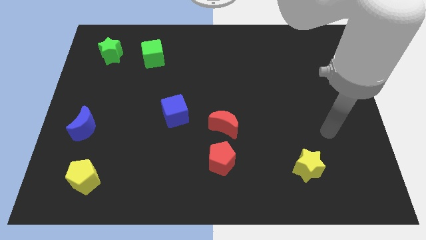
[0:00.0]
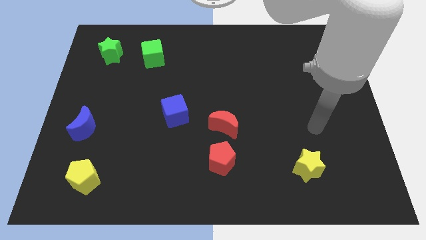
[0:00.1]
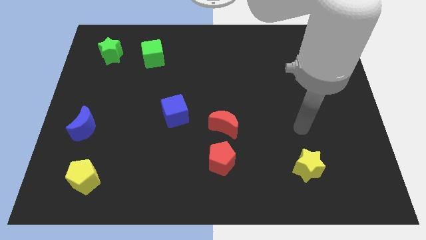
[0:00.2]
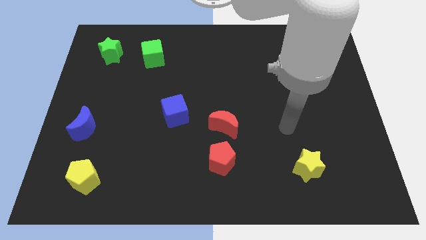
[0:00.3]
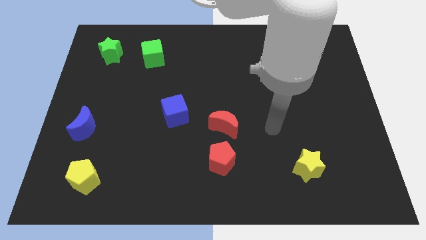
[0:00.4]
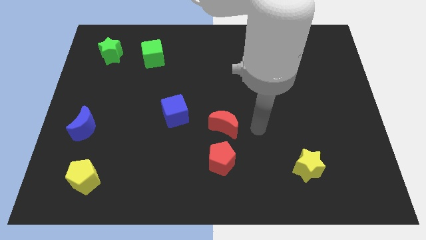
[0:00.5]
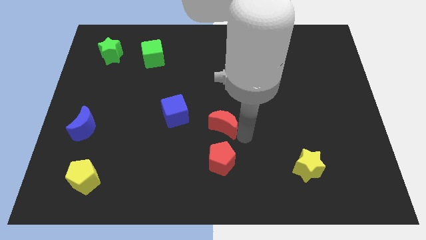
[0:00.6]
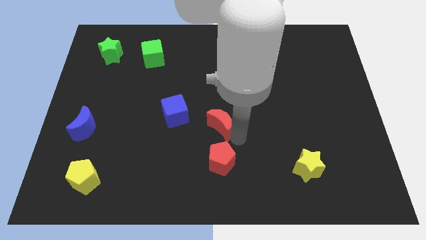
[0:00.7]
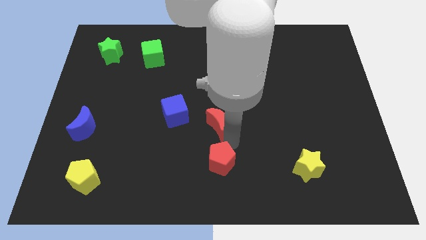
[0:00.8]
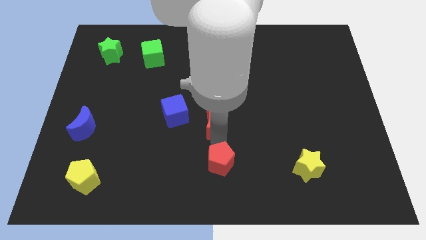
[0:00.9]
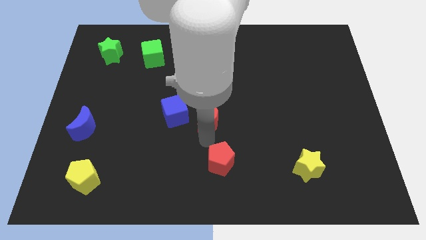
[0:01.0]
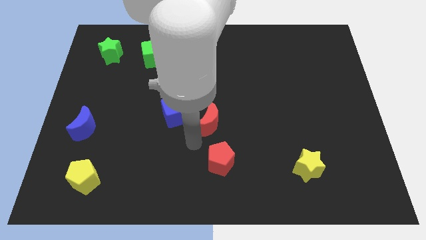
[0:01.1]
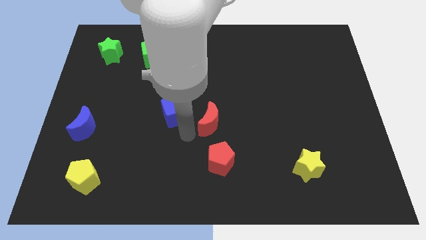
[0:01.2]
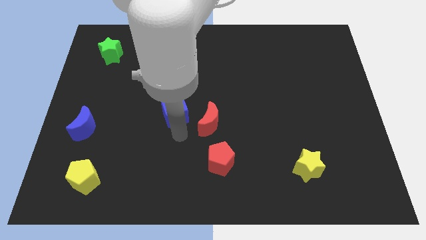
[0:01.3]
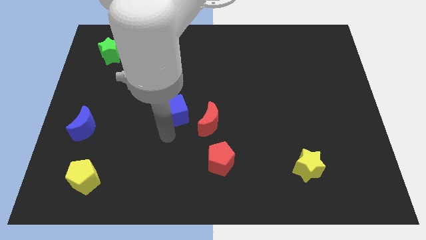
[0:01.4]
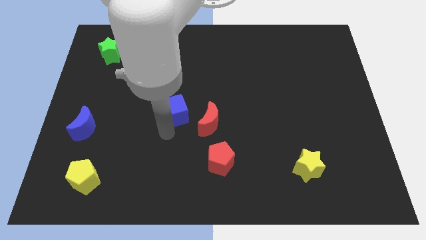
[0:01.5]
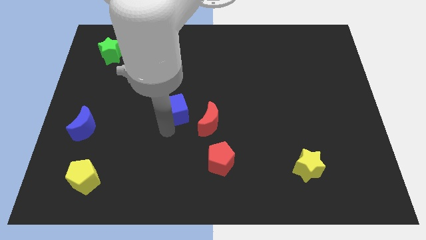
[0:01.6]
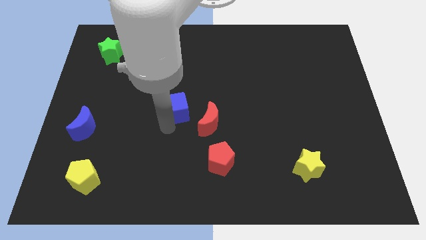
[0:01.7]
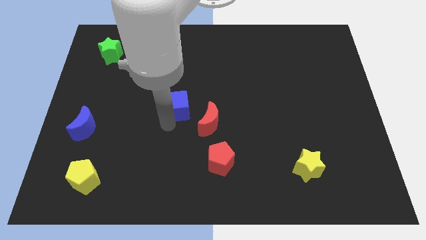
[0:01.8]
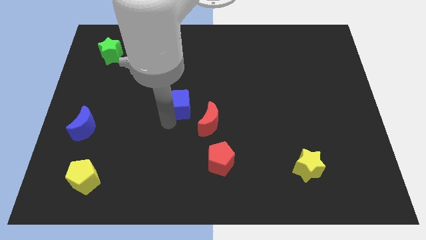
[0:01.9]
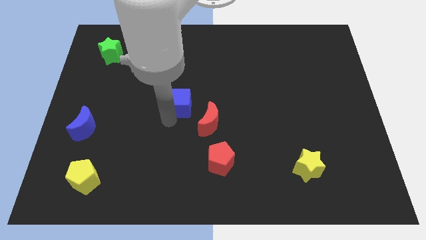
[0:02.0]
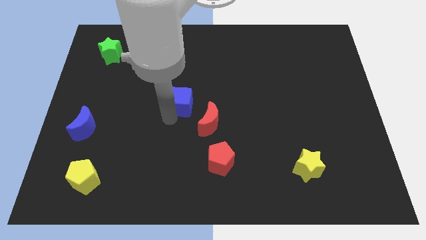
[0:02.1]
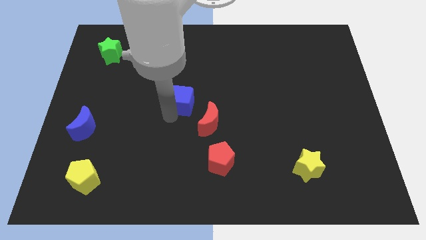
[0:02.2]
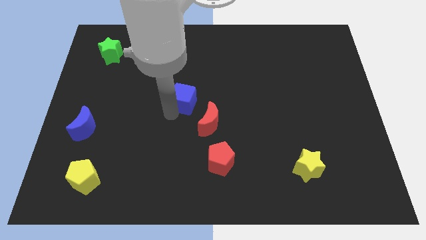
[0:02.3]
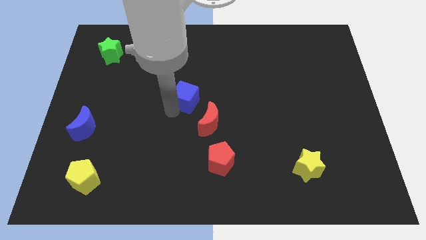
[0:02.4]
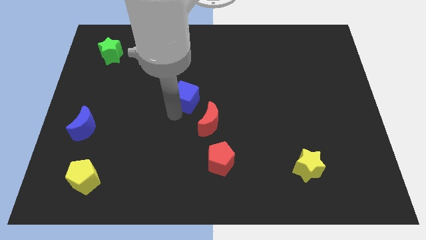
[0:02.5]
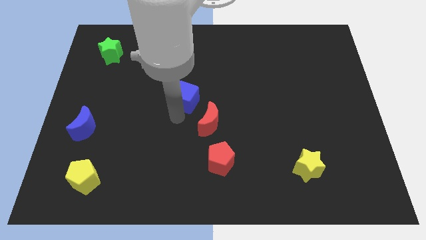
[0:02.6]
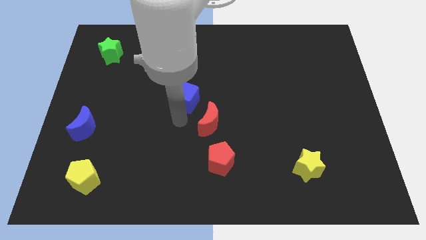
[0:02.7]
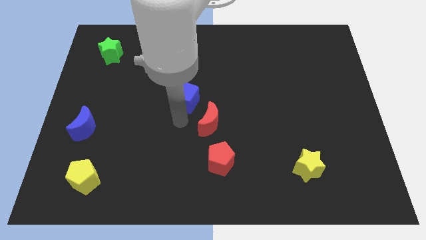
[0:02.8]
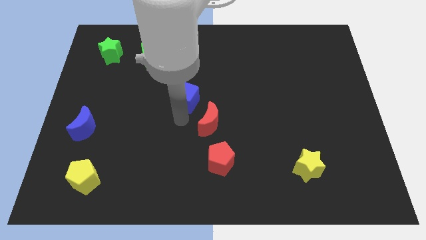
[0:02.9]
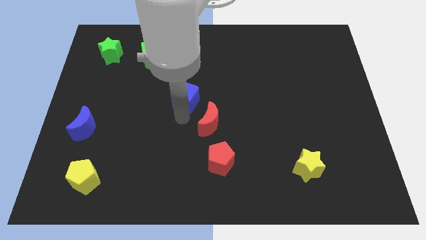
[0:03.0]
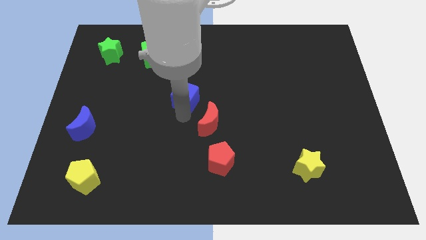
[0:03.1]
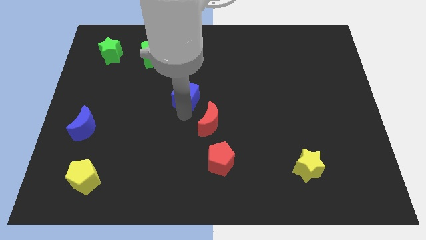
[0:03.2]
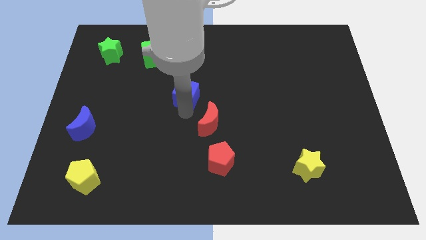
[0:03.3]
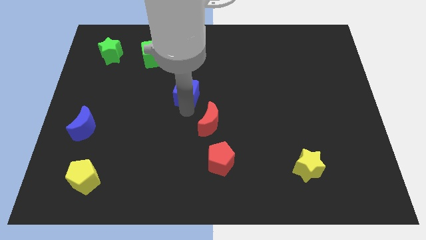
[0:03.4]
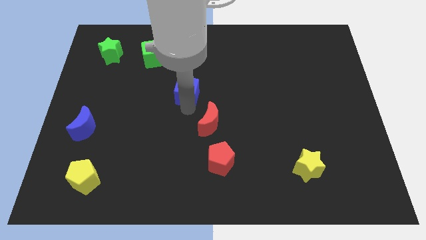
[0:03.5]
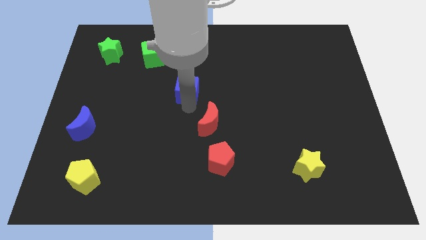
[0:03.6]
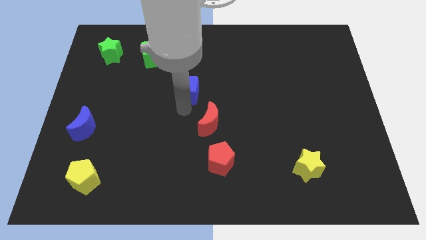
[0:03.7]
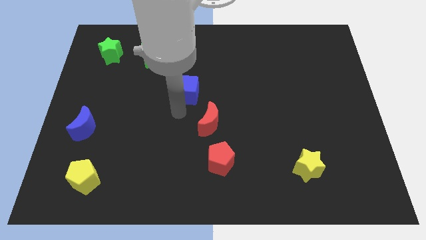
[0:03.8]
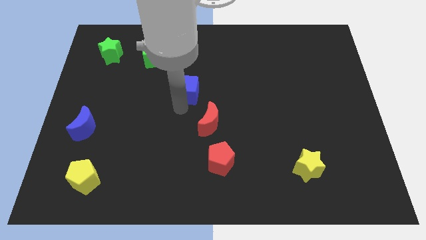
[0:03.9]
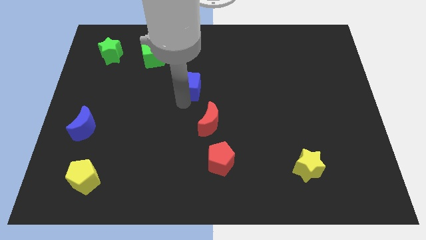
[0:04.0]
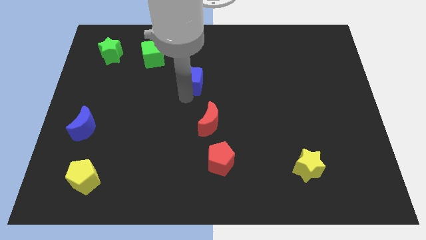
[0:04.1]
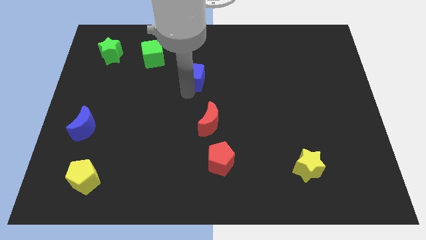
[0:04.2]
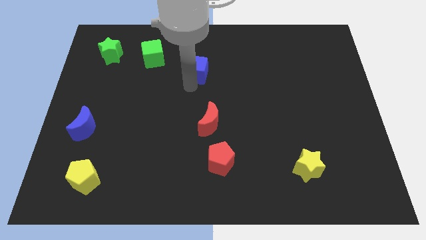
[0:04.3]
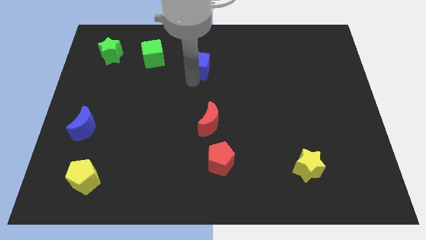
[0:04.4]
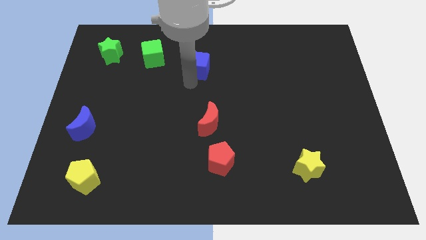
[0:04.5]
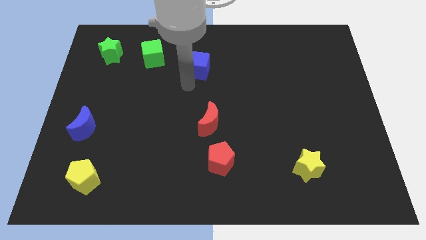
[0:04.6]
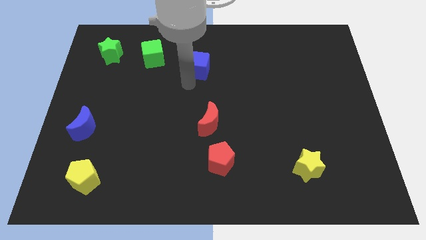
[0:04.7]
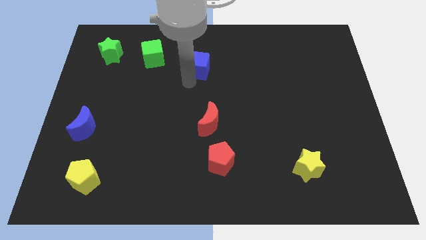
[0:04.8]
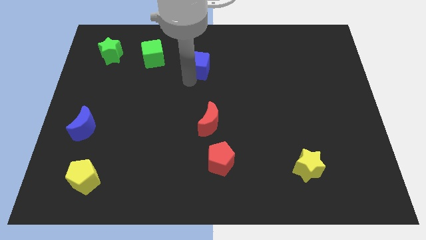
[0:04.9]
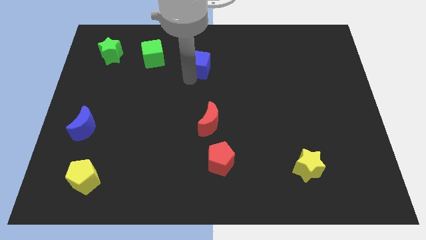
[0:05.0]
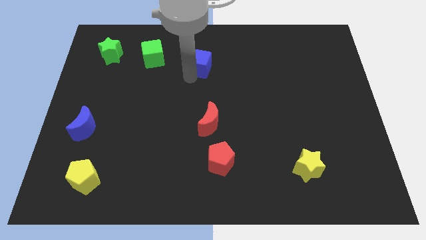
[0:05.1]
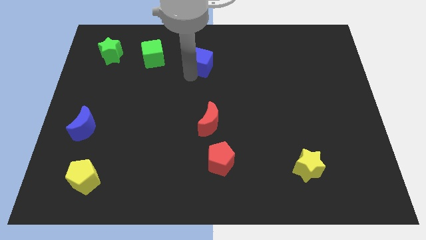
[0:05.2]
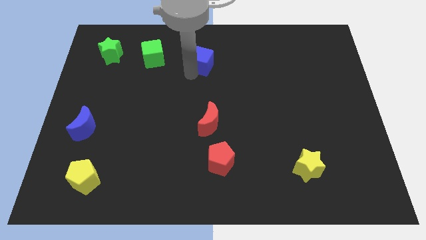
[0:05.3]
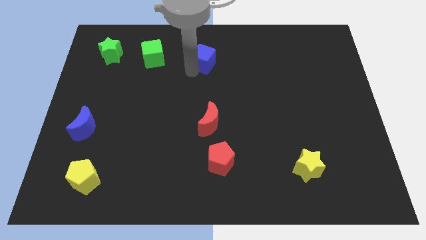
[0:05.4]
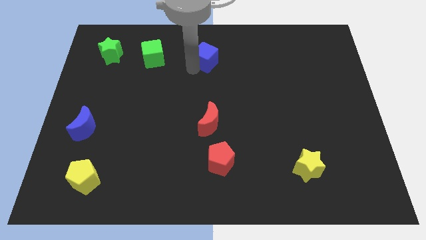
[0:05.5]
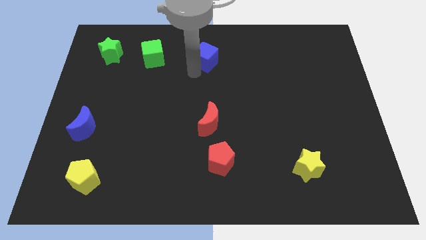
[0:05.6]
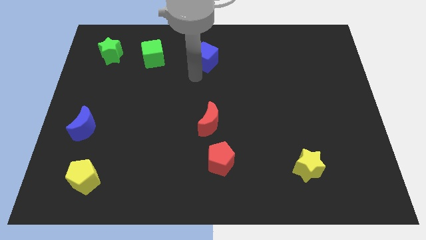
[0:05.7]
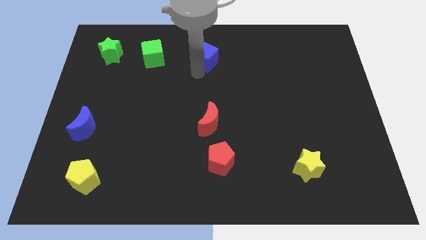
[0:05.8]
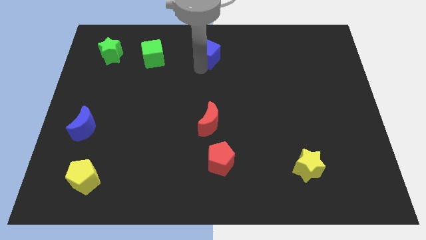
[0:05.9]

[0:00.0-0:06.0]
push the blue cube to the top side
